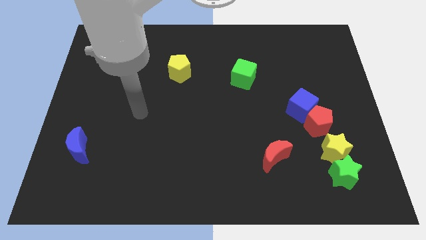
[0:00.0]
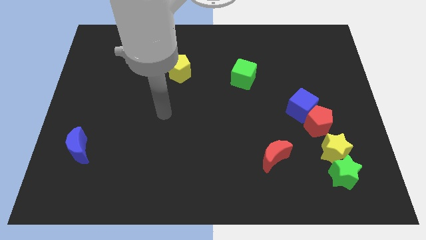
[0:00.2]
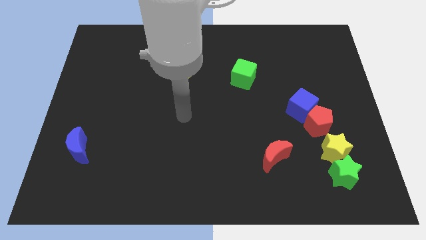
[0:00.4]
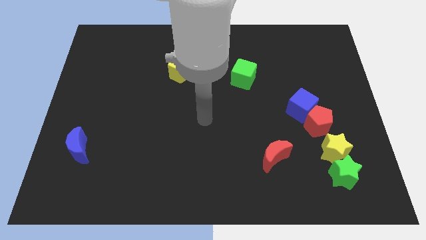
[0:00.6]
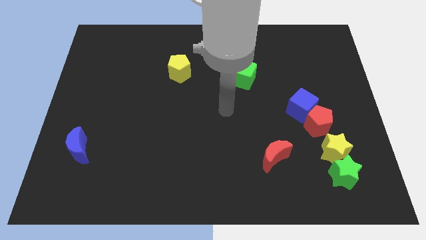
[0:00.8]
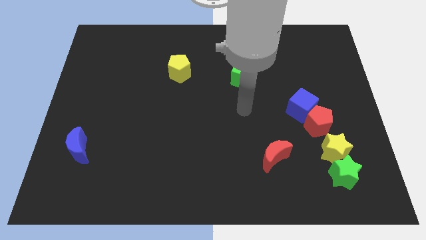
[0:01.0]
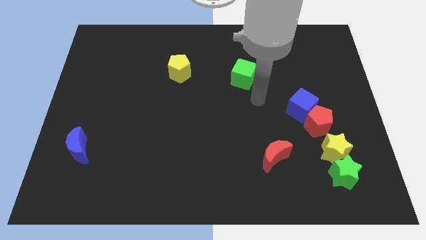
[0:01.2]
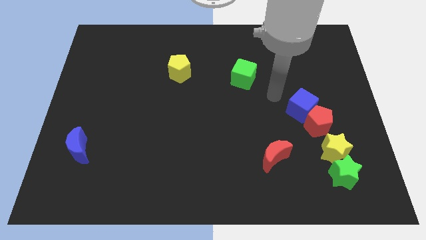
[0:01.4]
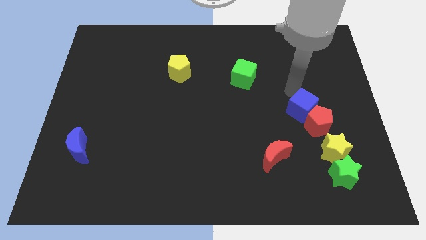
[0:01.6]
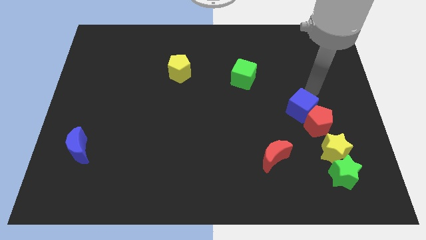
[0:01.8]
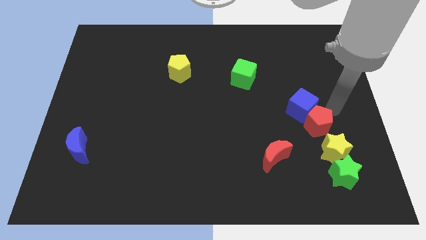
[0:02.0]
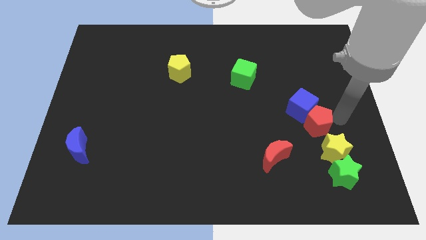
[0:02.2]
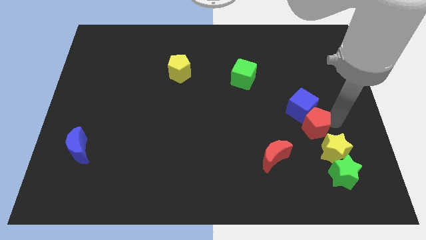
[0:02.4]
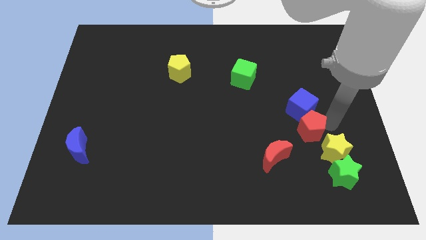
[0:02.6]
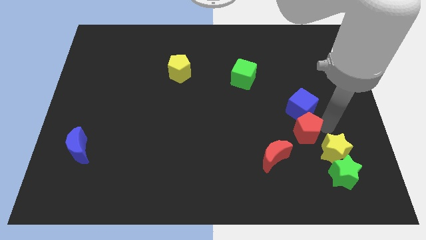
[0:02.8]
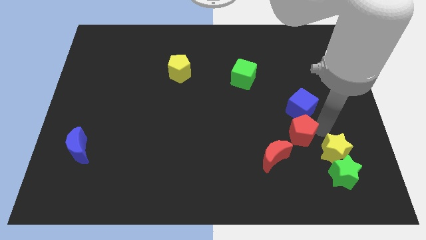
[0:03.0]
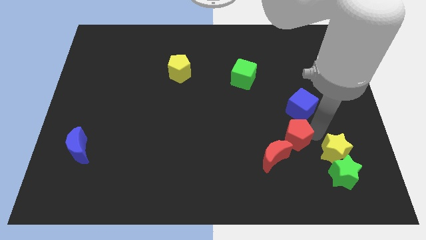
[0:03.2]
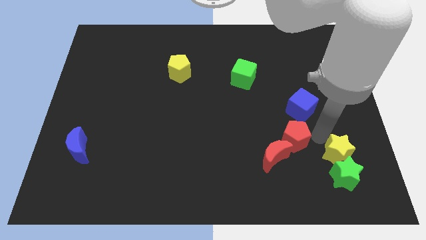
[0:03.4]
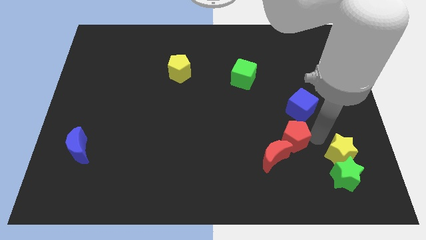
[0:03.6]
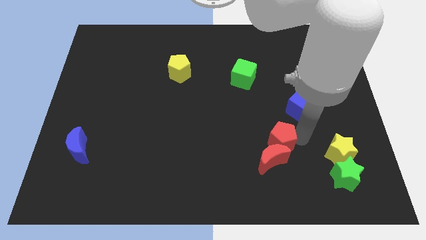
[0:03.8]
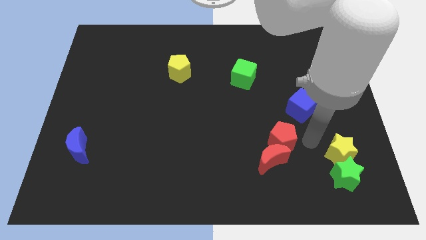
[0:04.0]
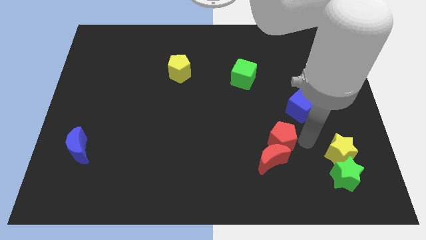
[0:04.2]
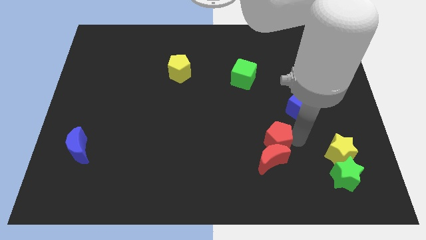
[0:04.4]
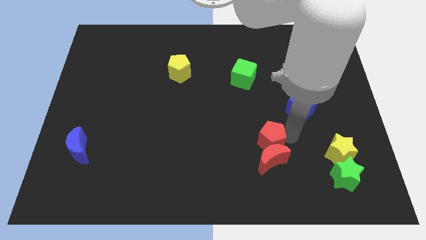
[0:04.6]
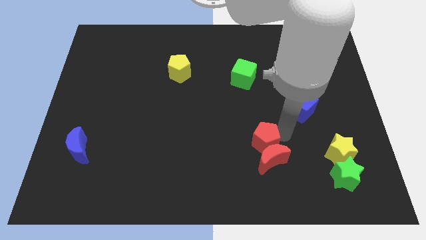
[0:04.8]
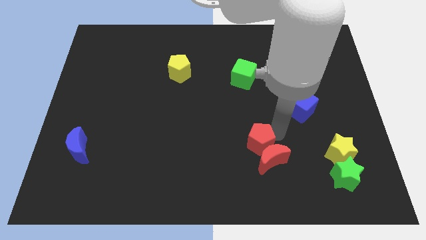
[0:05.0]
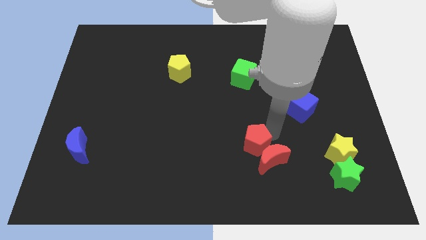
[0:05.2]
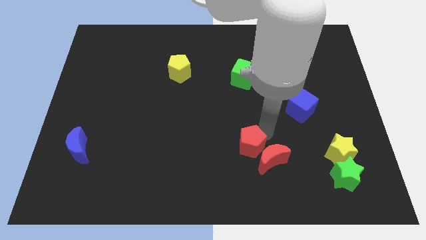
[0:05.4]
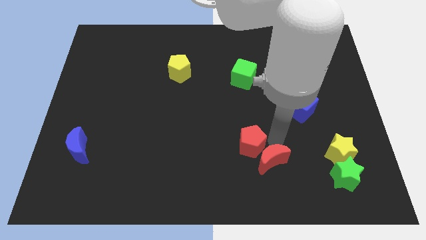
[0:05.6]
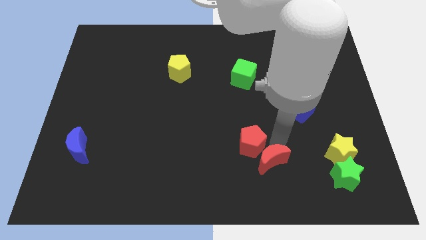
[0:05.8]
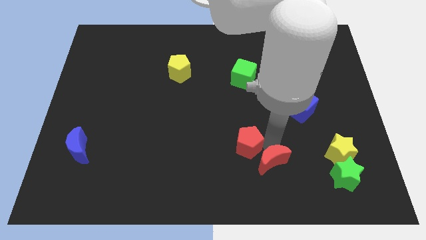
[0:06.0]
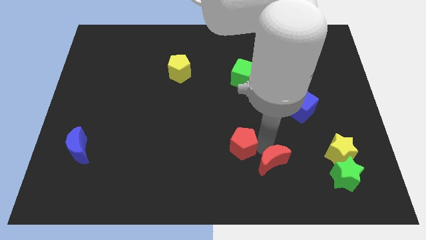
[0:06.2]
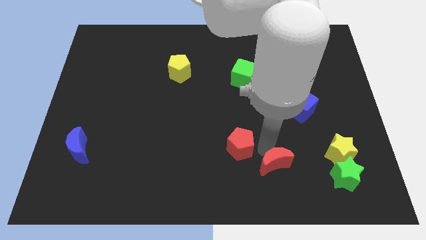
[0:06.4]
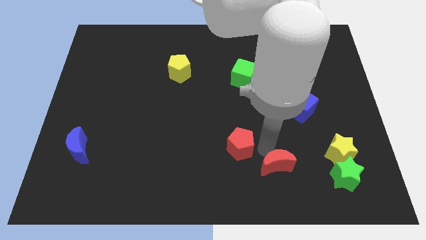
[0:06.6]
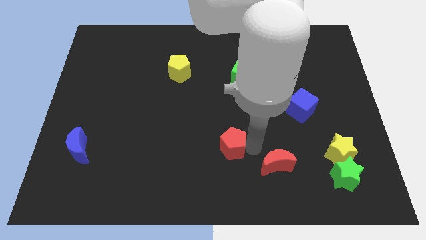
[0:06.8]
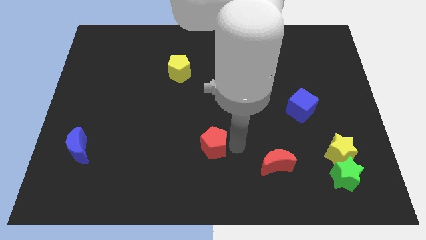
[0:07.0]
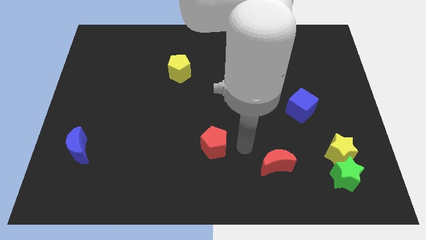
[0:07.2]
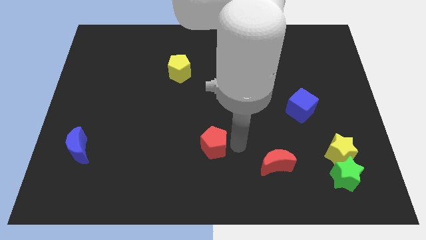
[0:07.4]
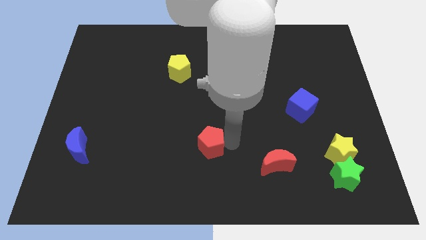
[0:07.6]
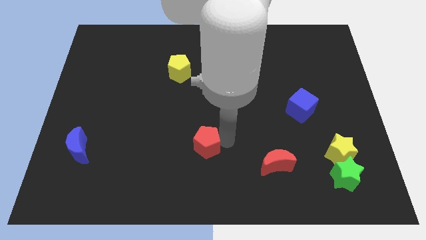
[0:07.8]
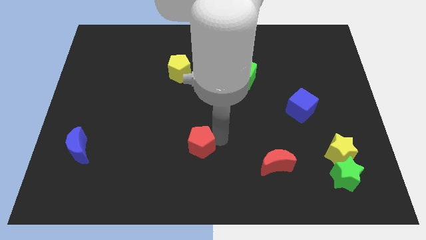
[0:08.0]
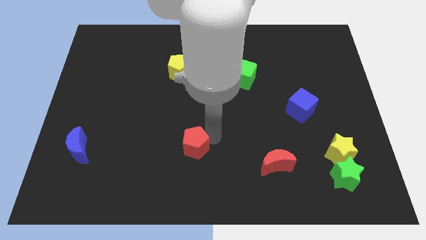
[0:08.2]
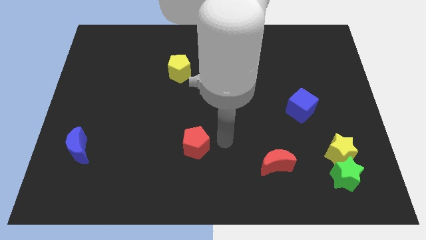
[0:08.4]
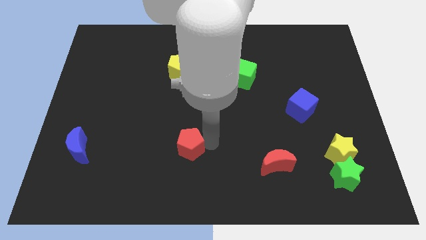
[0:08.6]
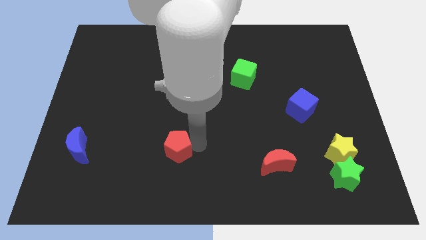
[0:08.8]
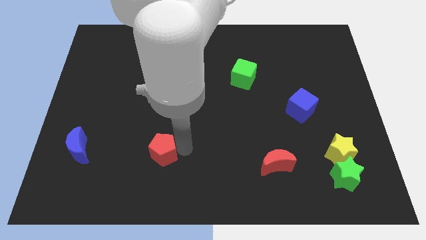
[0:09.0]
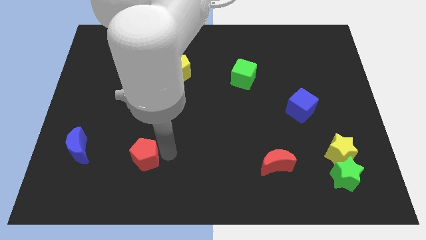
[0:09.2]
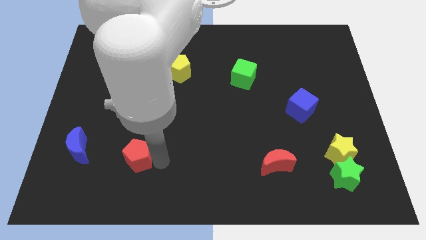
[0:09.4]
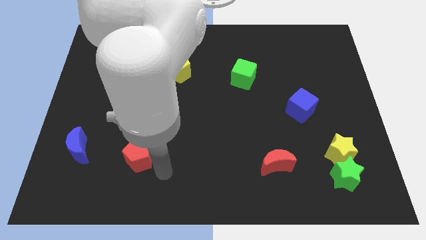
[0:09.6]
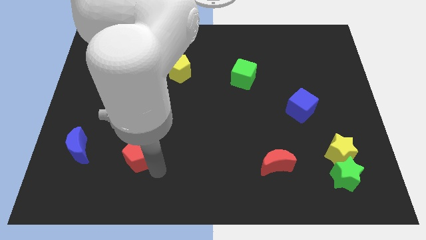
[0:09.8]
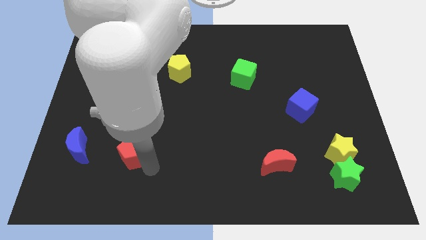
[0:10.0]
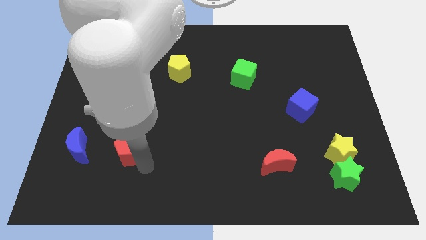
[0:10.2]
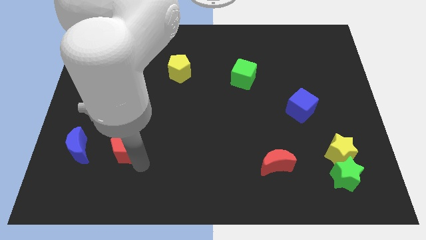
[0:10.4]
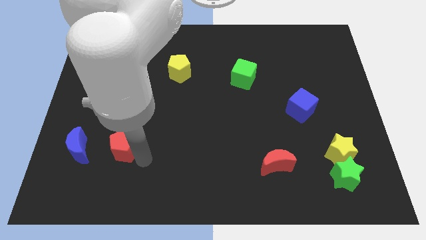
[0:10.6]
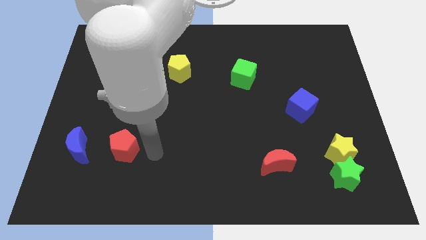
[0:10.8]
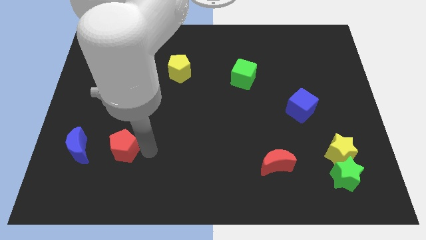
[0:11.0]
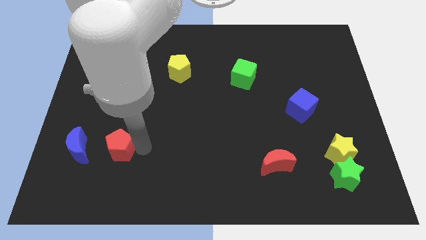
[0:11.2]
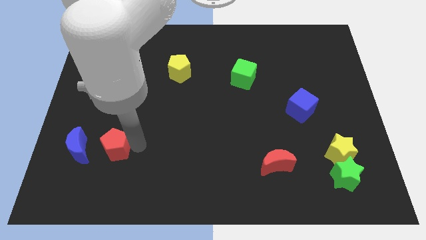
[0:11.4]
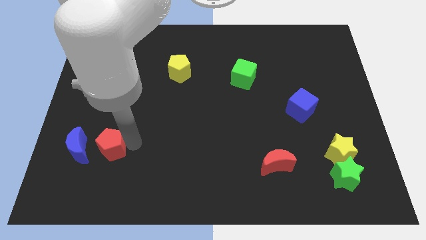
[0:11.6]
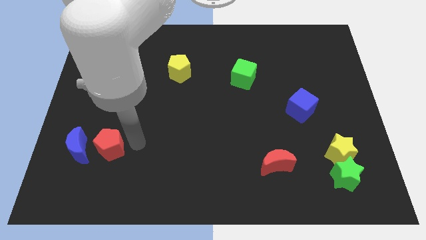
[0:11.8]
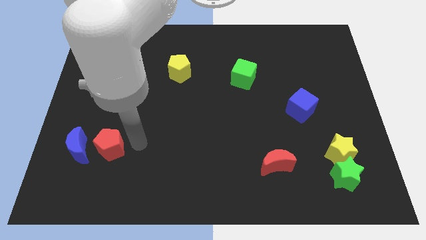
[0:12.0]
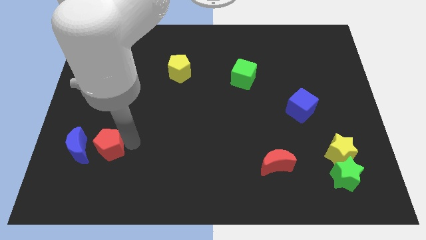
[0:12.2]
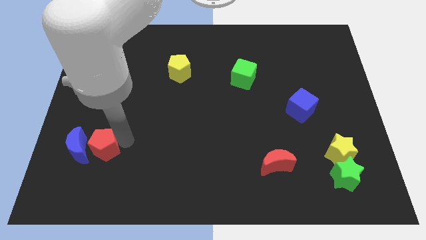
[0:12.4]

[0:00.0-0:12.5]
put the red pentagon to the blue moon

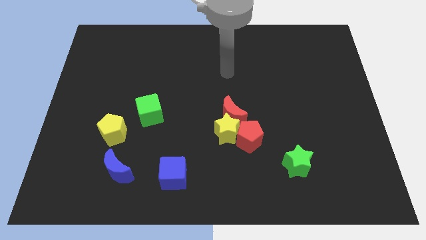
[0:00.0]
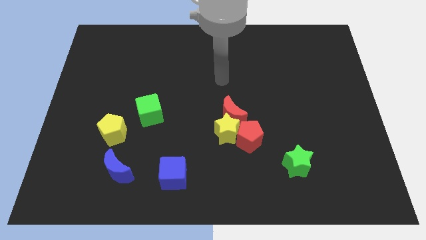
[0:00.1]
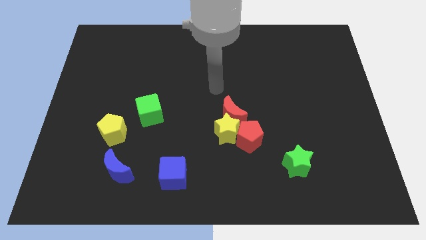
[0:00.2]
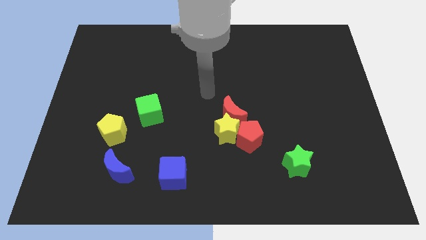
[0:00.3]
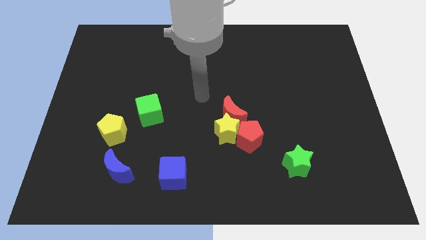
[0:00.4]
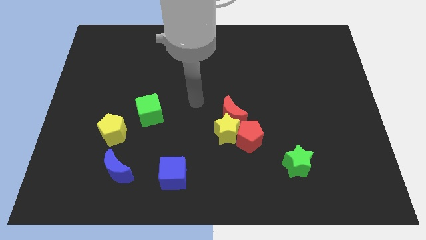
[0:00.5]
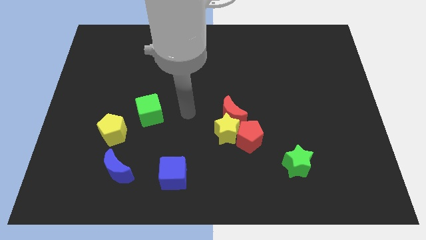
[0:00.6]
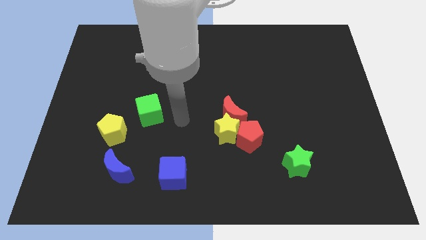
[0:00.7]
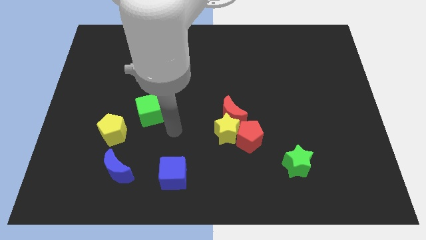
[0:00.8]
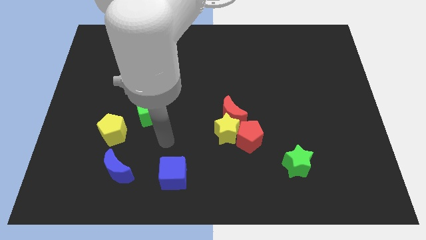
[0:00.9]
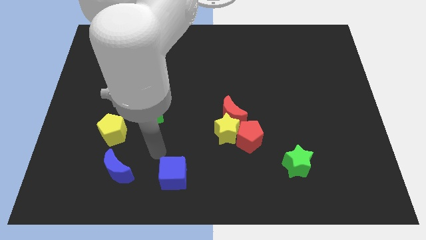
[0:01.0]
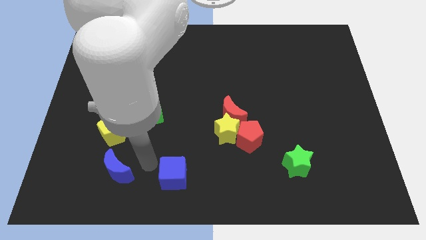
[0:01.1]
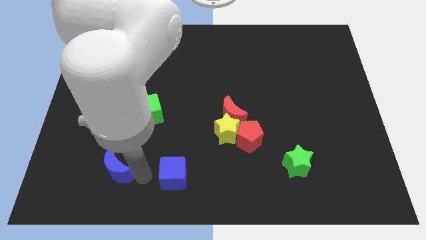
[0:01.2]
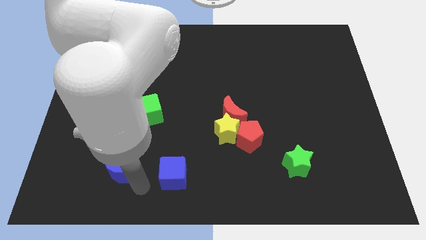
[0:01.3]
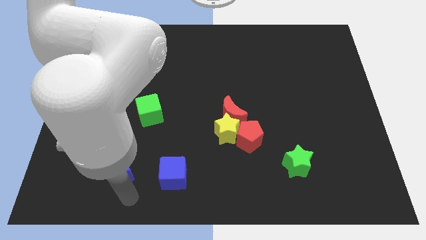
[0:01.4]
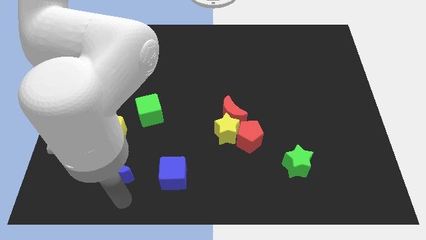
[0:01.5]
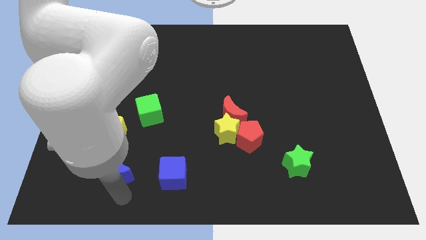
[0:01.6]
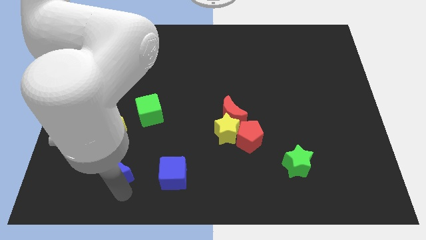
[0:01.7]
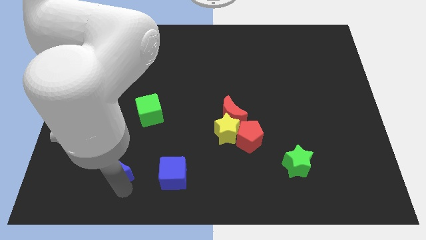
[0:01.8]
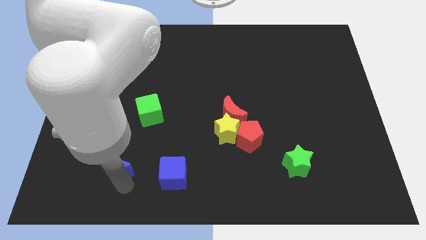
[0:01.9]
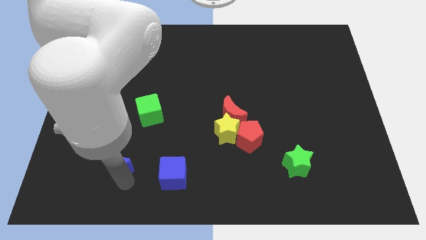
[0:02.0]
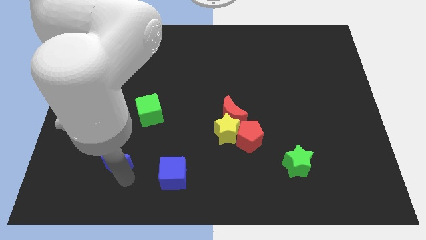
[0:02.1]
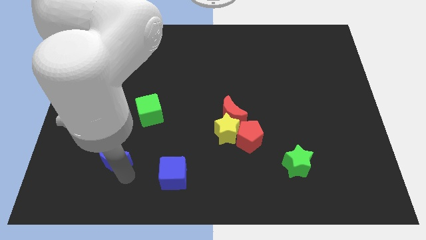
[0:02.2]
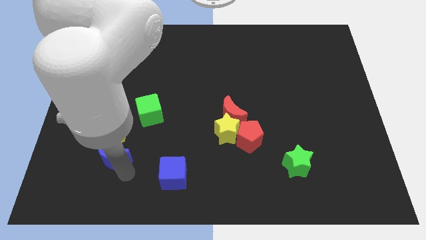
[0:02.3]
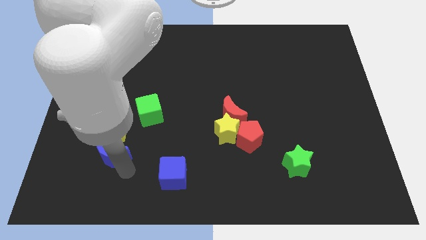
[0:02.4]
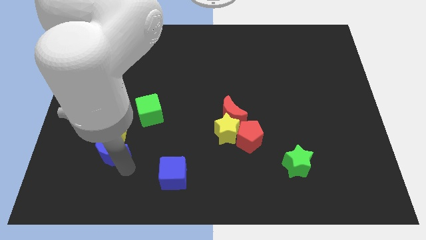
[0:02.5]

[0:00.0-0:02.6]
move the blue moon next to the yellow pentagon
